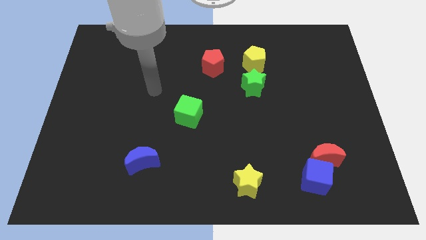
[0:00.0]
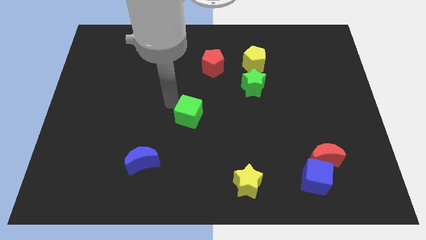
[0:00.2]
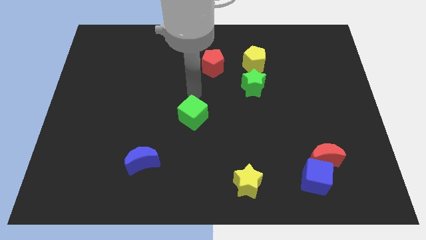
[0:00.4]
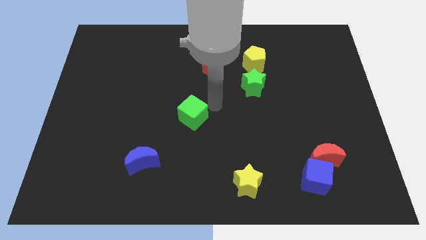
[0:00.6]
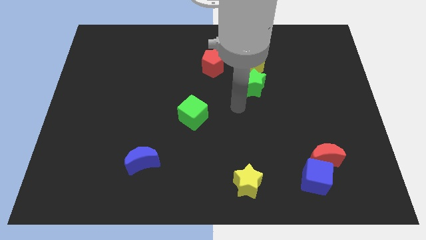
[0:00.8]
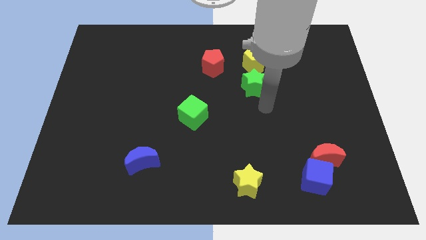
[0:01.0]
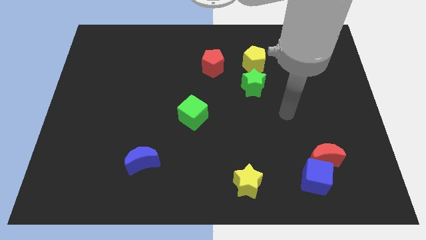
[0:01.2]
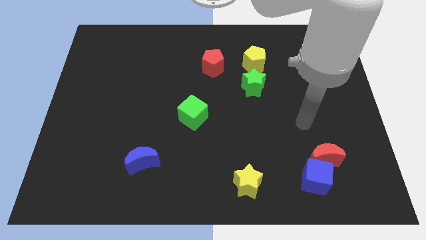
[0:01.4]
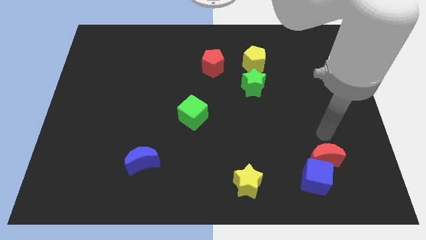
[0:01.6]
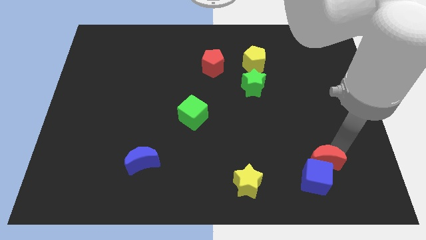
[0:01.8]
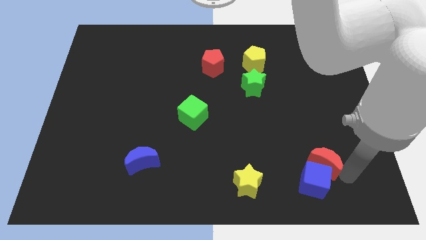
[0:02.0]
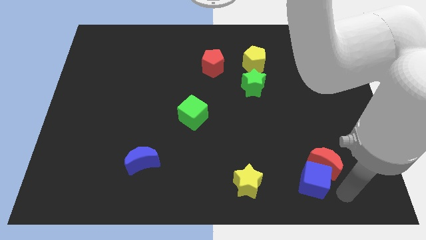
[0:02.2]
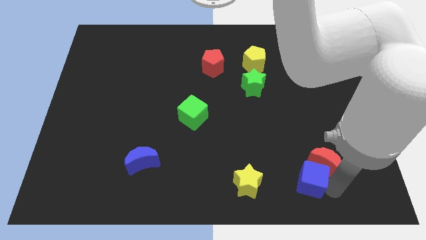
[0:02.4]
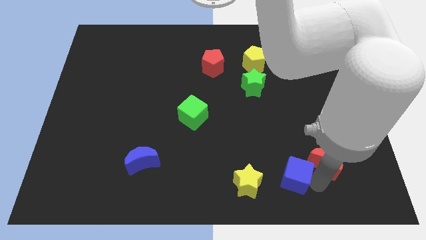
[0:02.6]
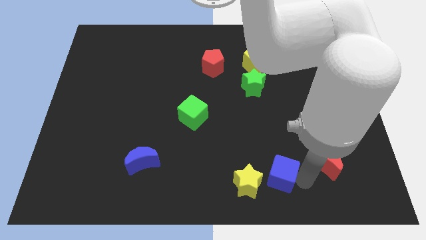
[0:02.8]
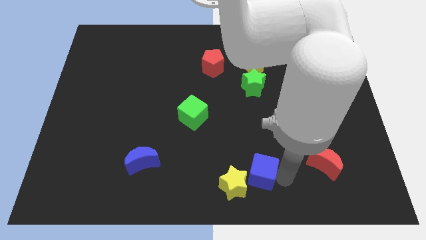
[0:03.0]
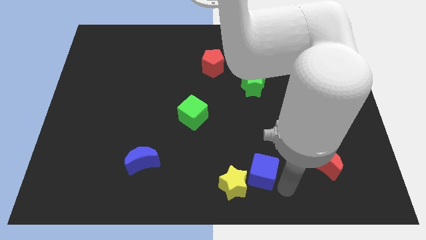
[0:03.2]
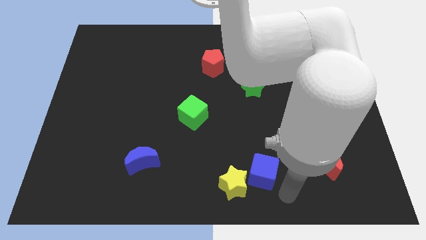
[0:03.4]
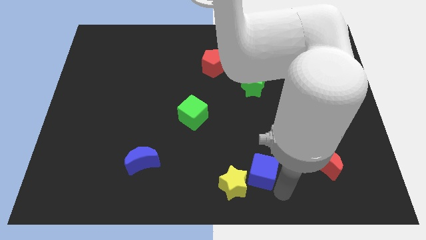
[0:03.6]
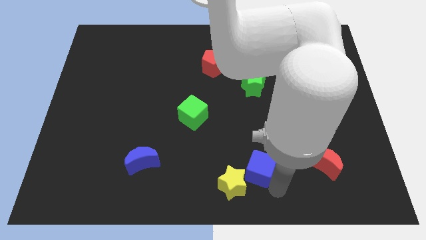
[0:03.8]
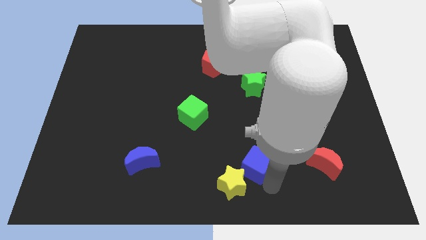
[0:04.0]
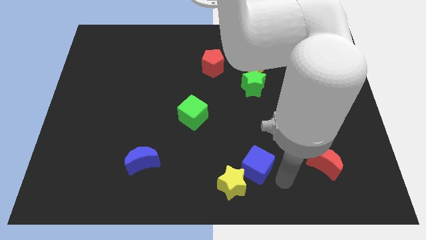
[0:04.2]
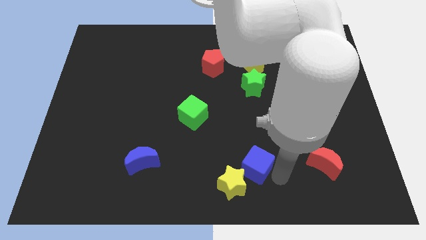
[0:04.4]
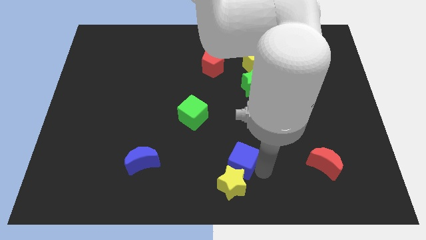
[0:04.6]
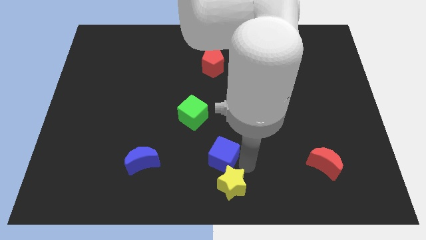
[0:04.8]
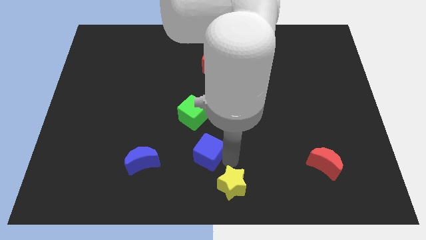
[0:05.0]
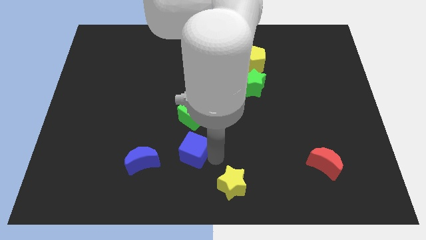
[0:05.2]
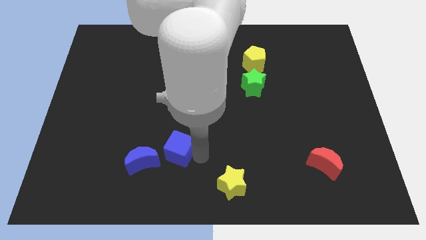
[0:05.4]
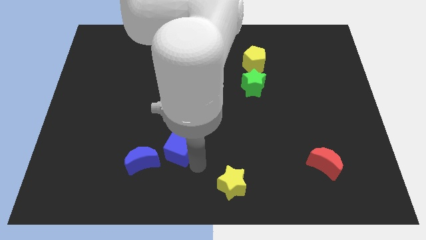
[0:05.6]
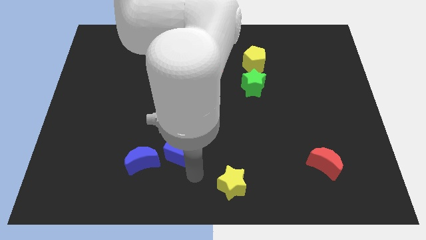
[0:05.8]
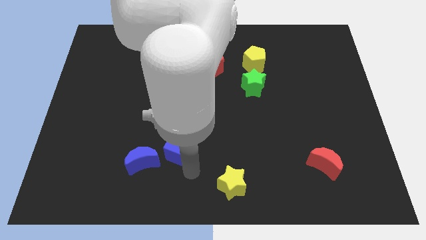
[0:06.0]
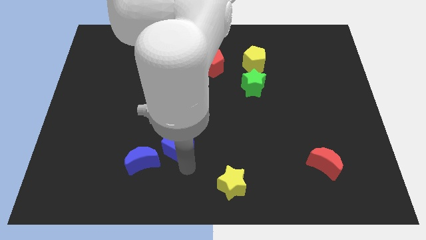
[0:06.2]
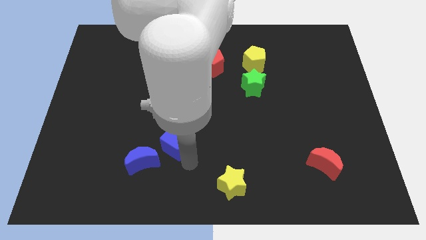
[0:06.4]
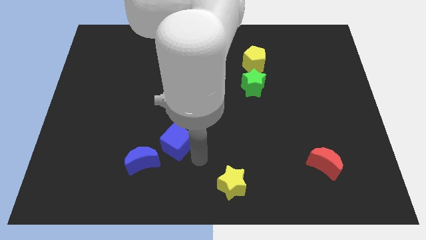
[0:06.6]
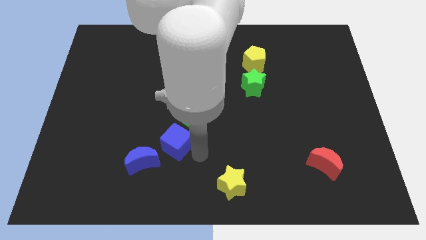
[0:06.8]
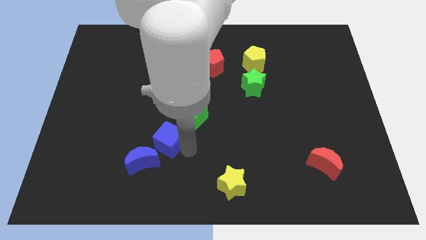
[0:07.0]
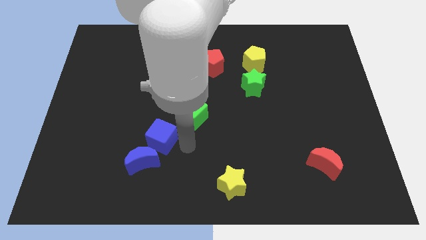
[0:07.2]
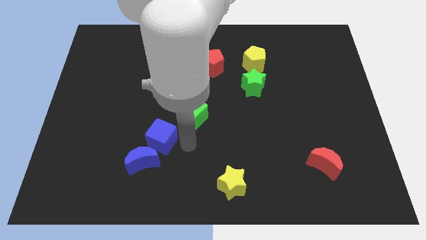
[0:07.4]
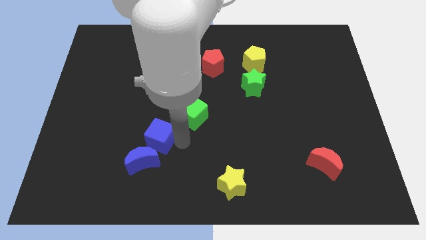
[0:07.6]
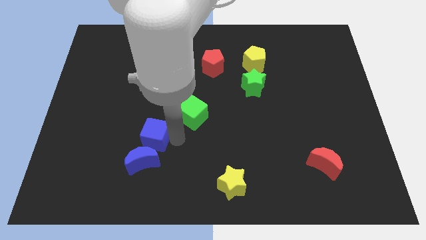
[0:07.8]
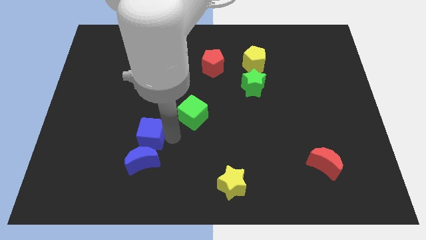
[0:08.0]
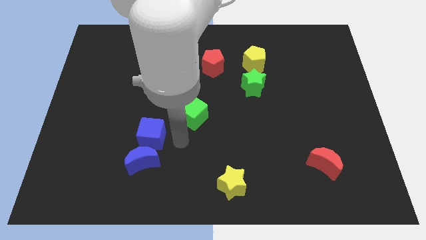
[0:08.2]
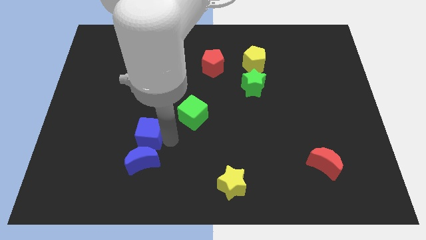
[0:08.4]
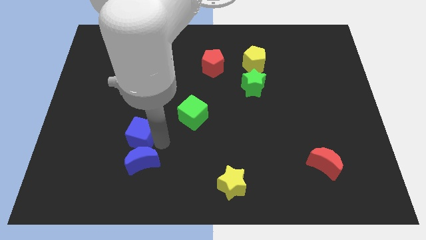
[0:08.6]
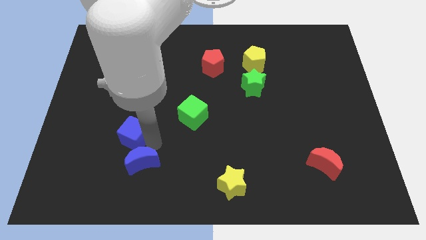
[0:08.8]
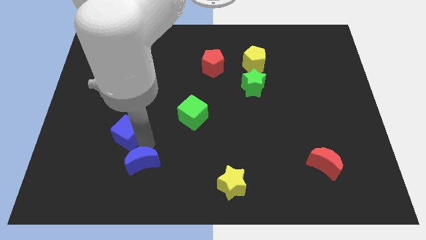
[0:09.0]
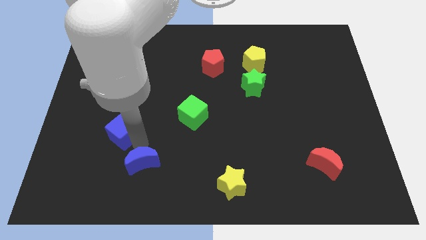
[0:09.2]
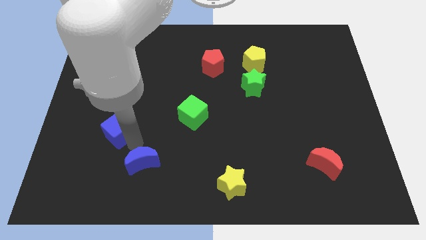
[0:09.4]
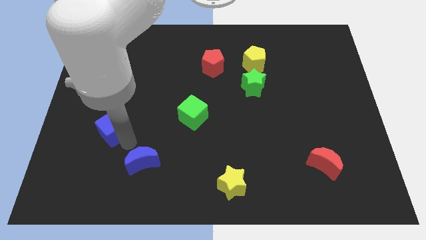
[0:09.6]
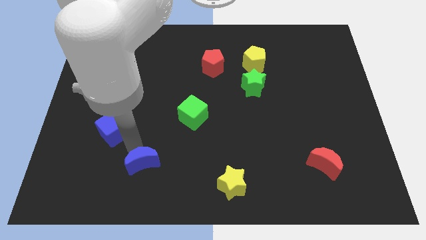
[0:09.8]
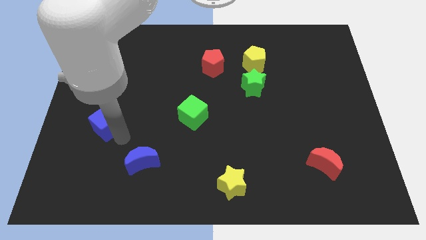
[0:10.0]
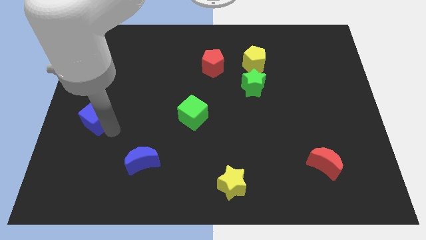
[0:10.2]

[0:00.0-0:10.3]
slide the blue cube to the left side of the board

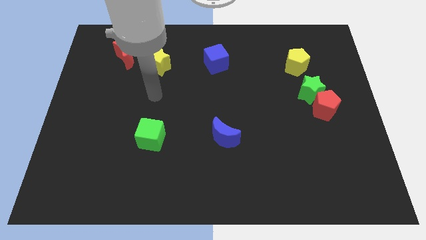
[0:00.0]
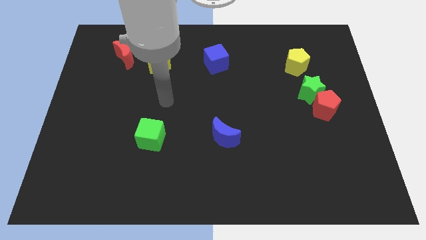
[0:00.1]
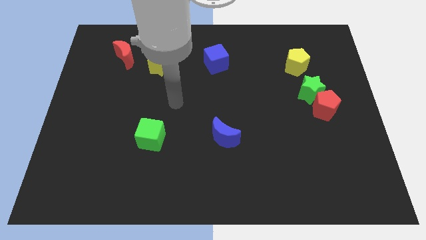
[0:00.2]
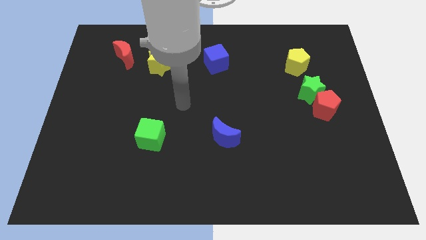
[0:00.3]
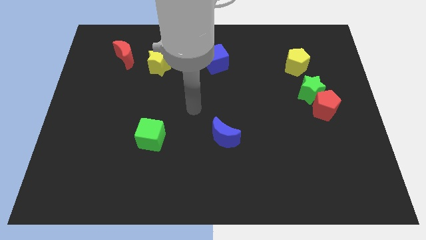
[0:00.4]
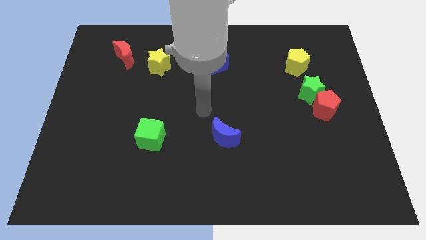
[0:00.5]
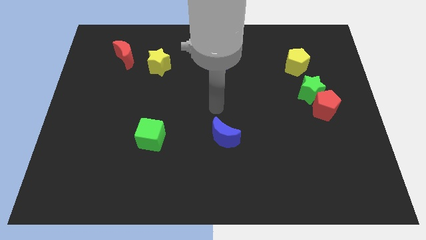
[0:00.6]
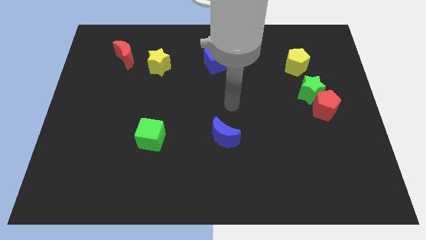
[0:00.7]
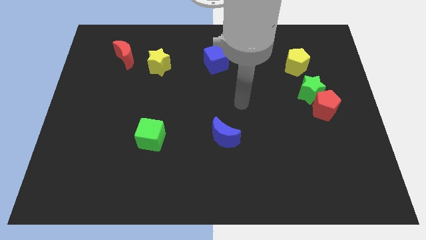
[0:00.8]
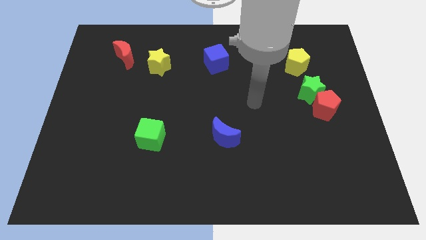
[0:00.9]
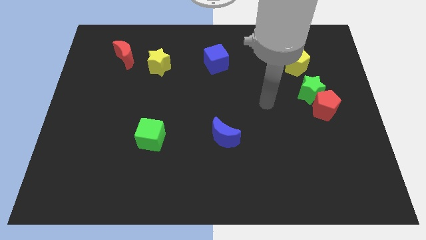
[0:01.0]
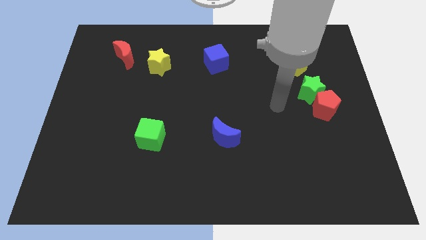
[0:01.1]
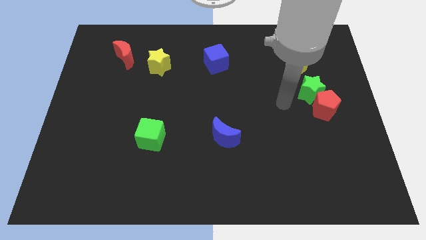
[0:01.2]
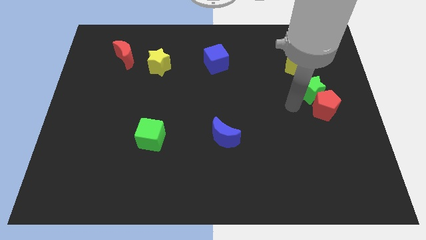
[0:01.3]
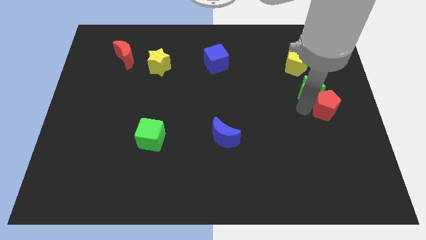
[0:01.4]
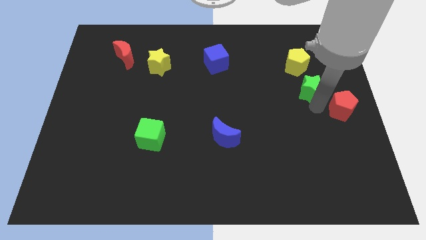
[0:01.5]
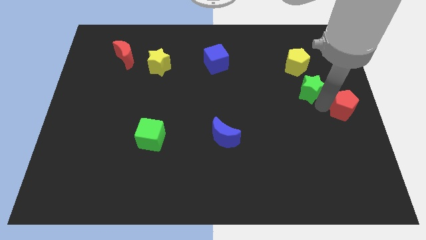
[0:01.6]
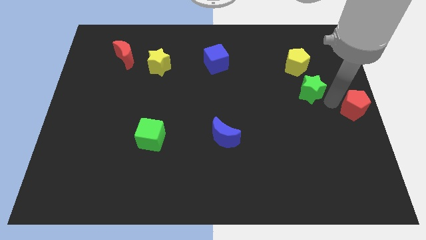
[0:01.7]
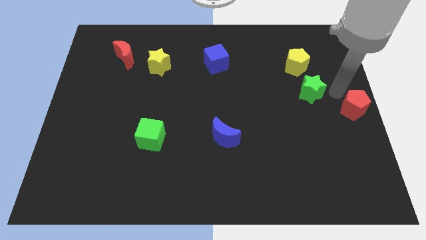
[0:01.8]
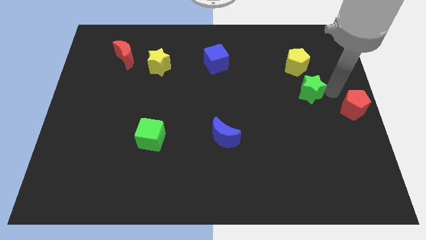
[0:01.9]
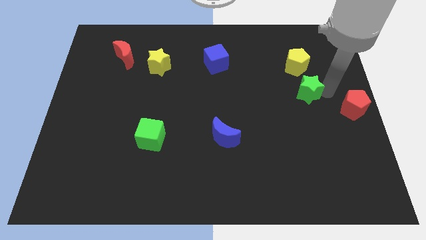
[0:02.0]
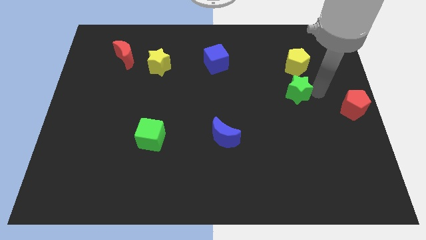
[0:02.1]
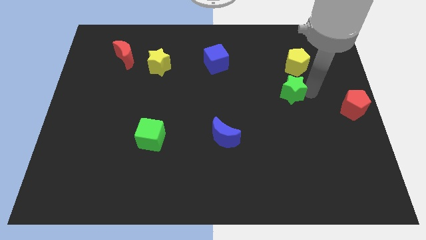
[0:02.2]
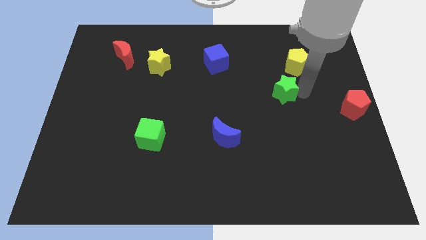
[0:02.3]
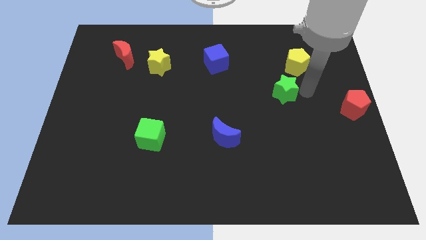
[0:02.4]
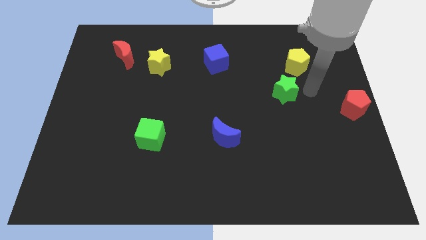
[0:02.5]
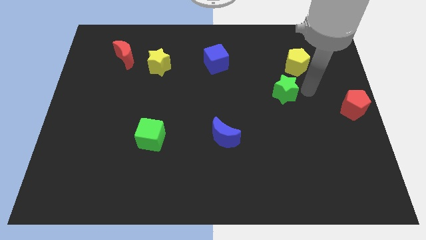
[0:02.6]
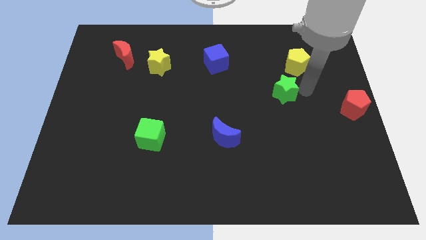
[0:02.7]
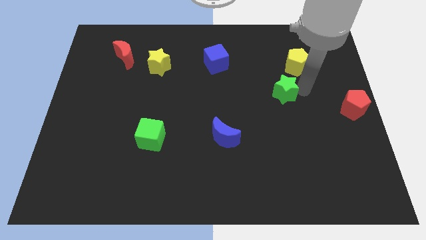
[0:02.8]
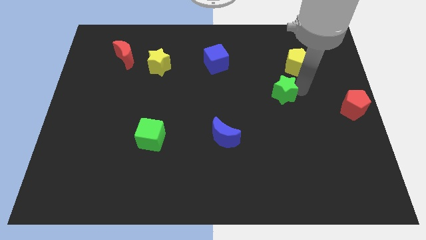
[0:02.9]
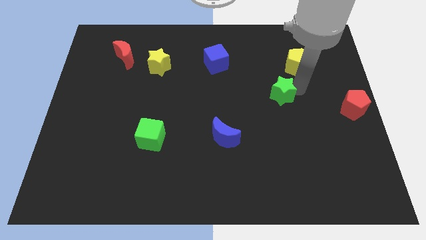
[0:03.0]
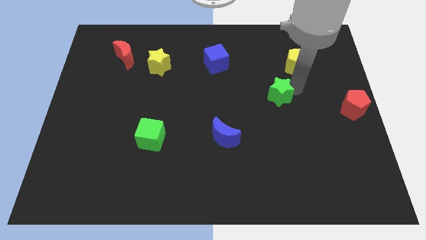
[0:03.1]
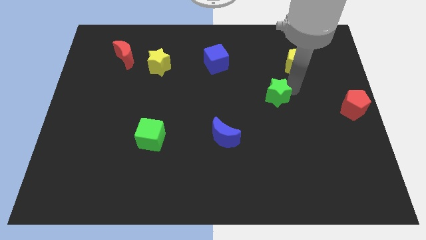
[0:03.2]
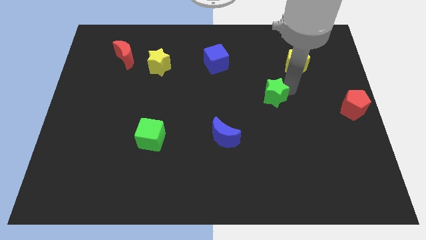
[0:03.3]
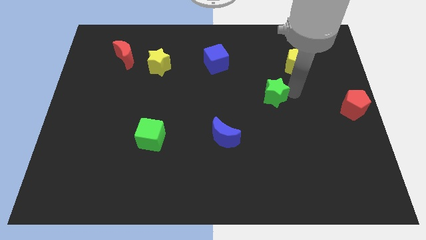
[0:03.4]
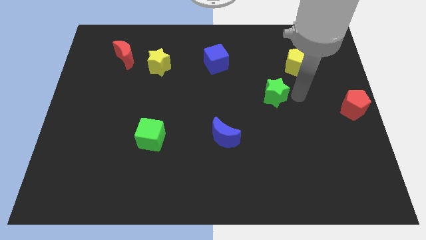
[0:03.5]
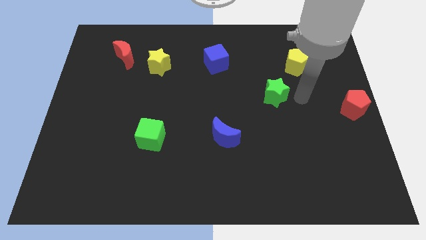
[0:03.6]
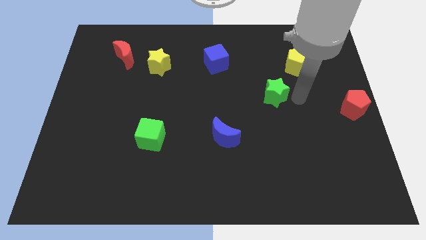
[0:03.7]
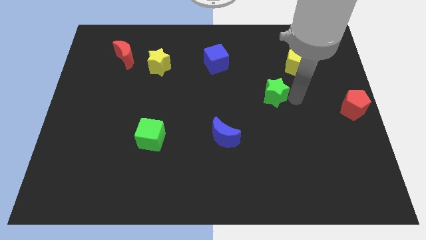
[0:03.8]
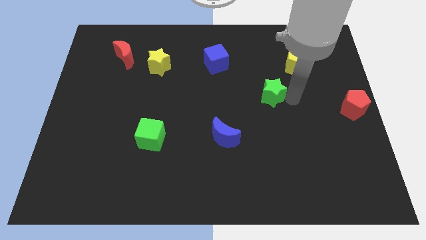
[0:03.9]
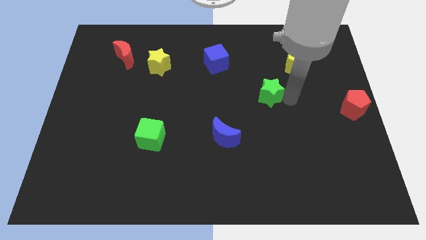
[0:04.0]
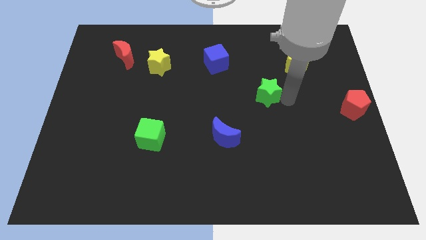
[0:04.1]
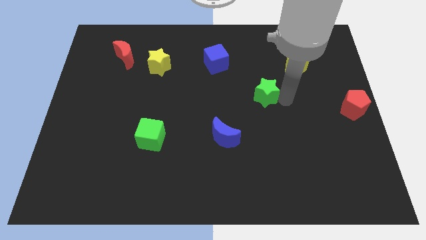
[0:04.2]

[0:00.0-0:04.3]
move the green star to the middle of the board
